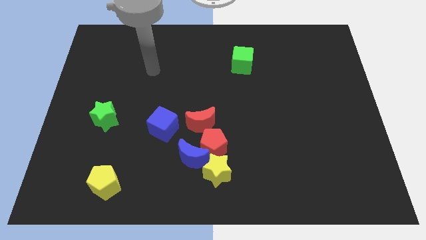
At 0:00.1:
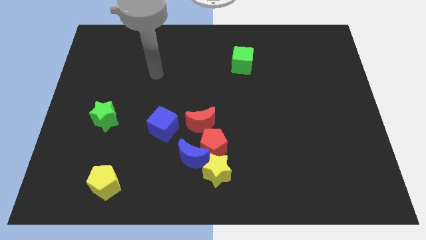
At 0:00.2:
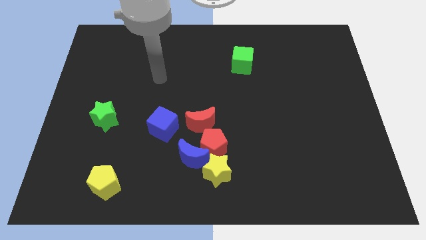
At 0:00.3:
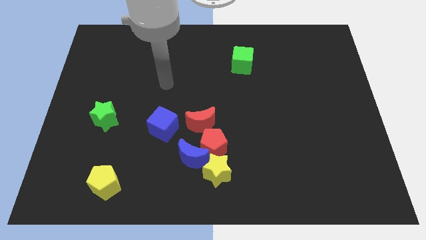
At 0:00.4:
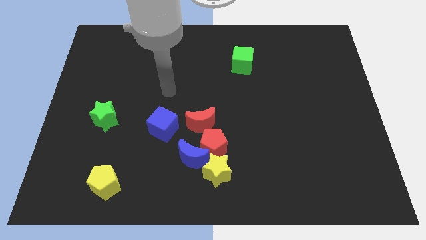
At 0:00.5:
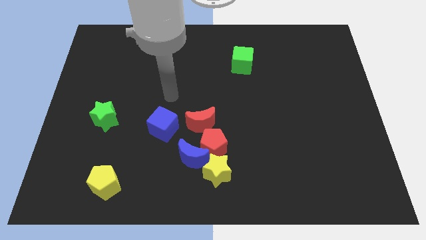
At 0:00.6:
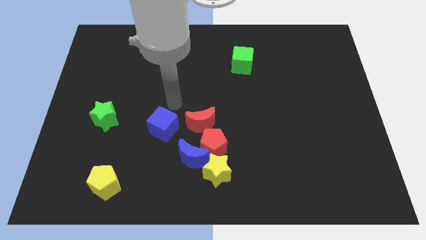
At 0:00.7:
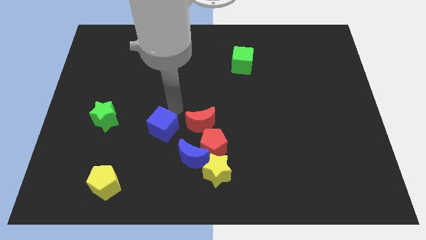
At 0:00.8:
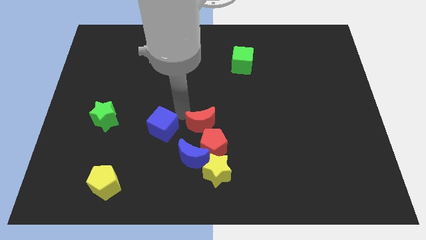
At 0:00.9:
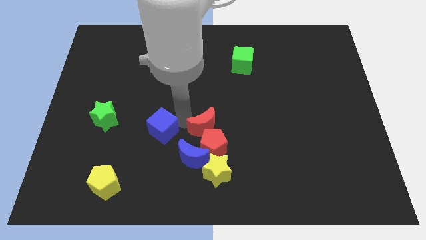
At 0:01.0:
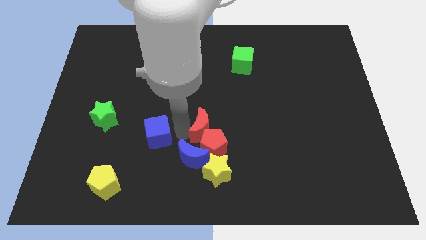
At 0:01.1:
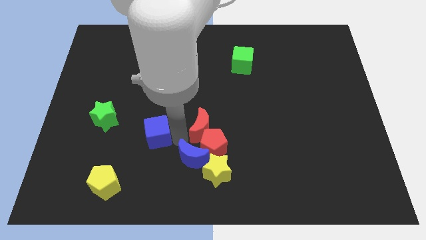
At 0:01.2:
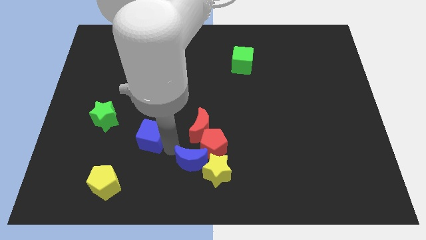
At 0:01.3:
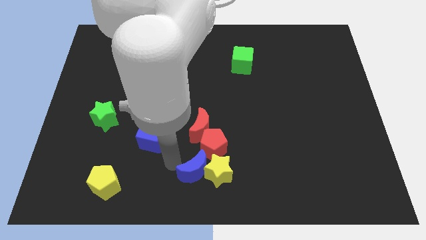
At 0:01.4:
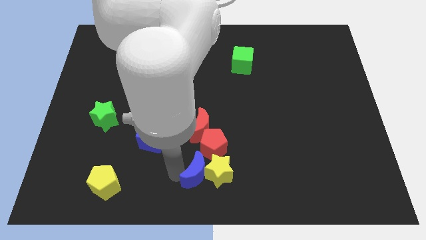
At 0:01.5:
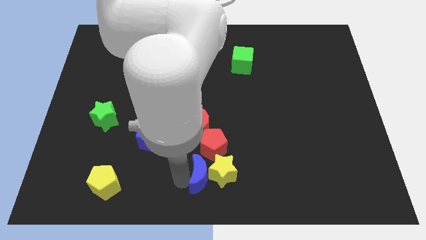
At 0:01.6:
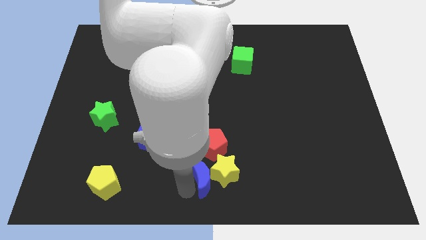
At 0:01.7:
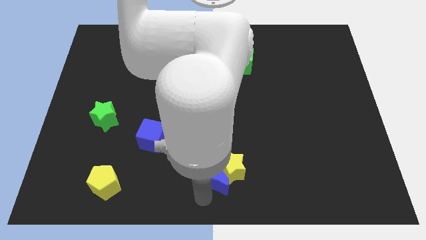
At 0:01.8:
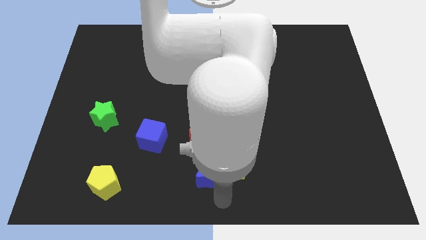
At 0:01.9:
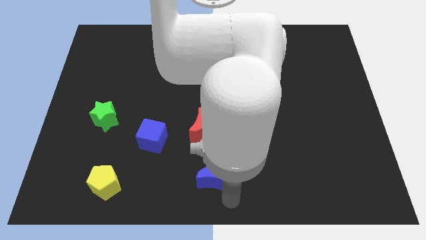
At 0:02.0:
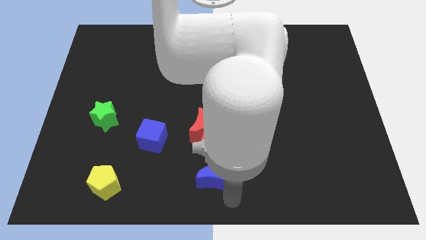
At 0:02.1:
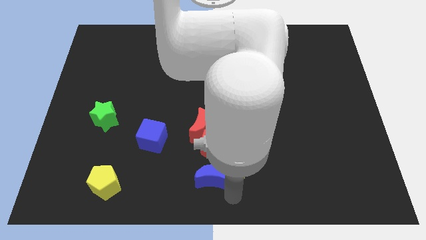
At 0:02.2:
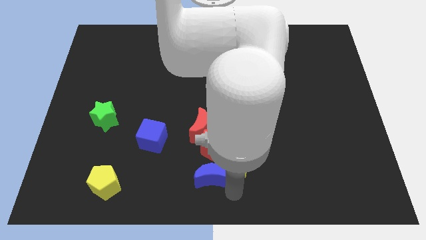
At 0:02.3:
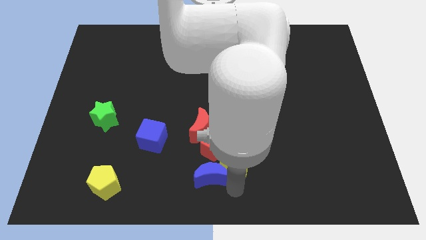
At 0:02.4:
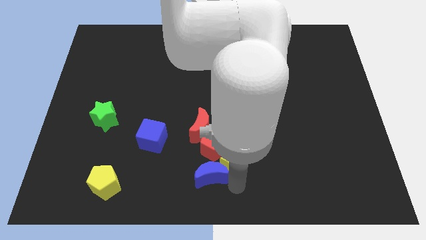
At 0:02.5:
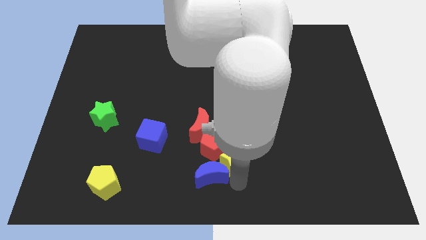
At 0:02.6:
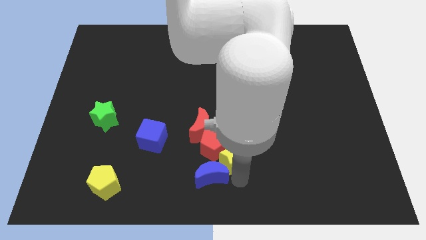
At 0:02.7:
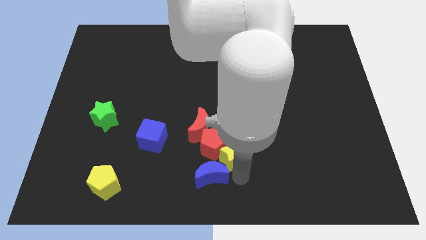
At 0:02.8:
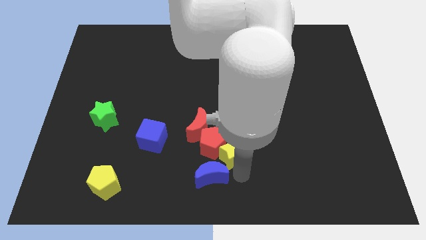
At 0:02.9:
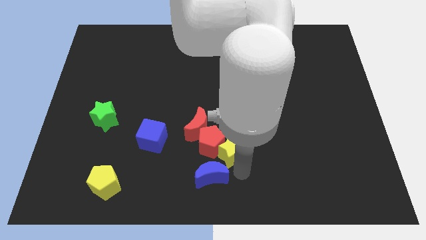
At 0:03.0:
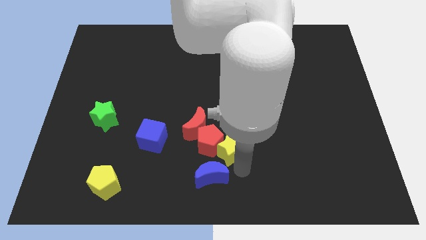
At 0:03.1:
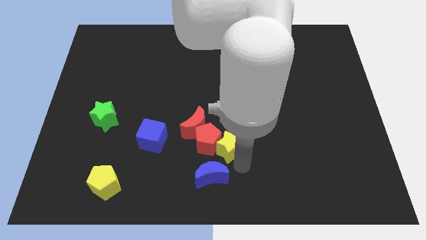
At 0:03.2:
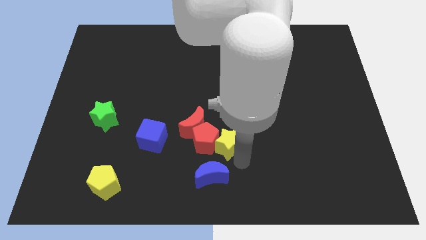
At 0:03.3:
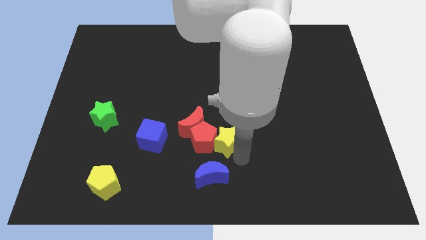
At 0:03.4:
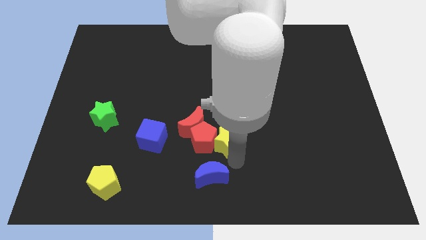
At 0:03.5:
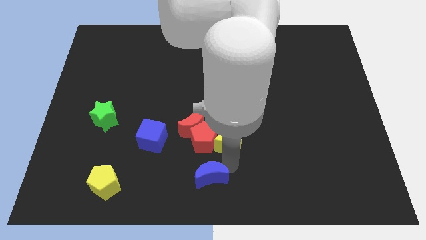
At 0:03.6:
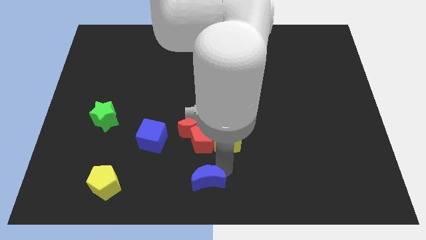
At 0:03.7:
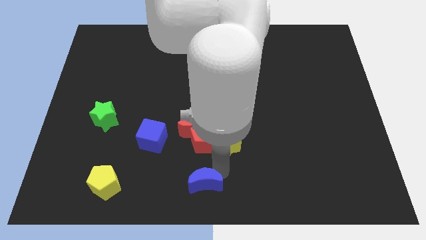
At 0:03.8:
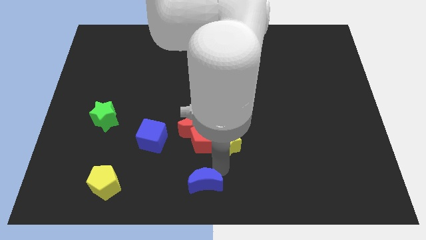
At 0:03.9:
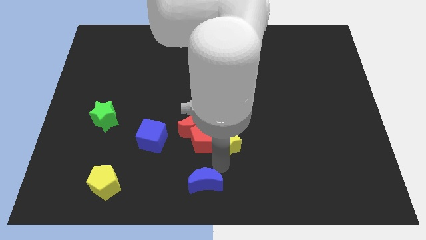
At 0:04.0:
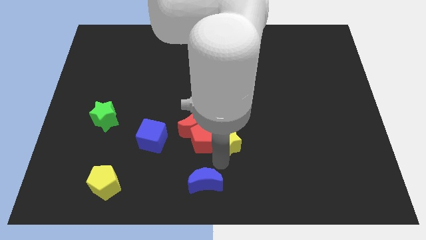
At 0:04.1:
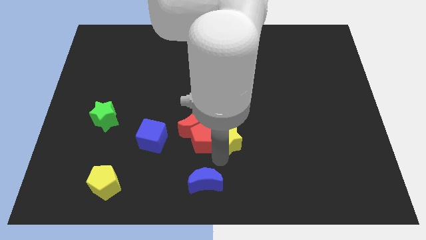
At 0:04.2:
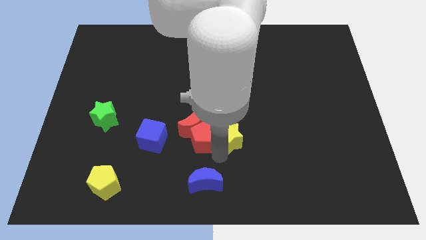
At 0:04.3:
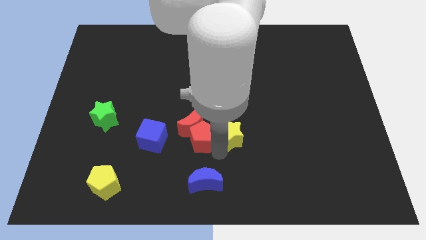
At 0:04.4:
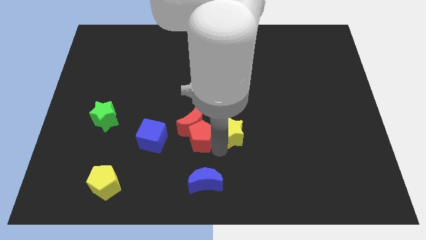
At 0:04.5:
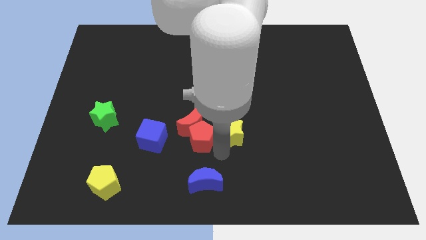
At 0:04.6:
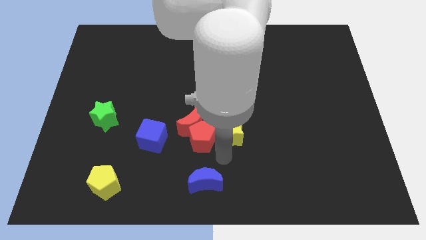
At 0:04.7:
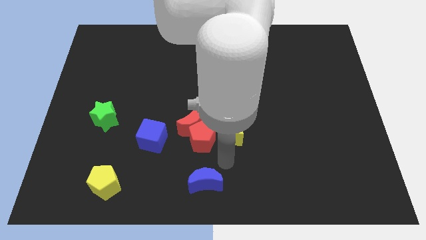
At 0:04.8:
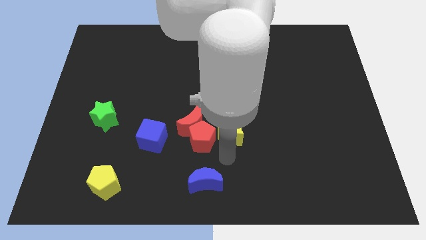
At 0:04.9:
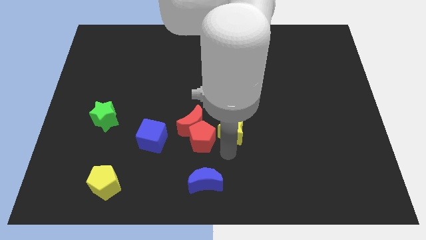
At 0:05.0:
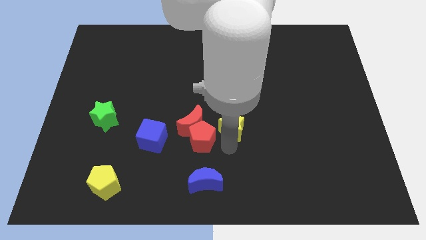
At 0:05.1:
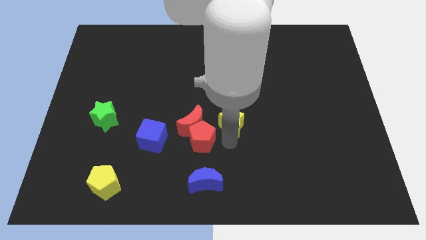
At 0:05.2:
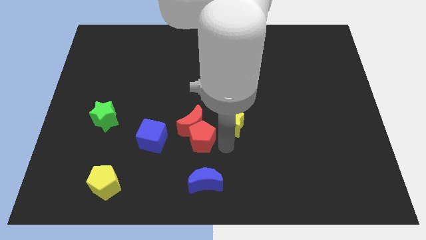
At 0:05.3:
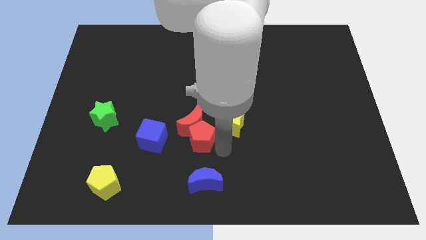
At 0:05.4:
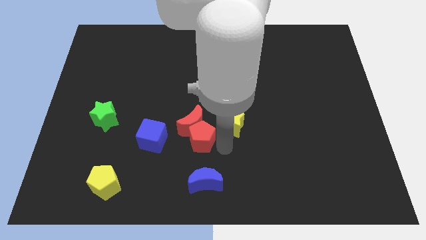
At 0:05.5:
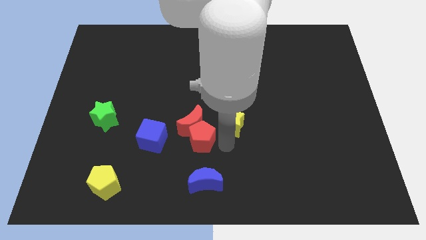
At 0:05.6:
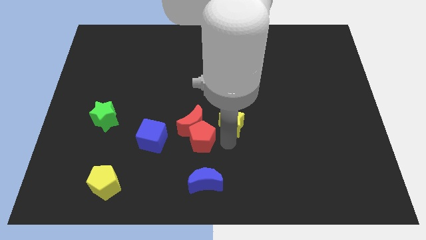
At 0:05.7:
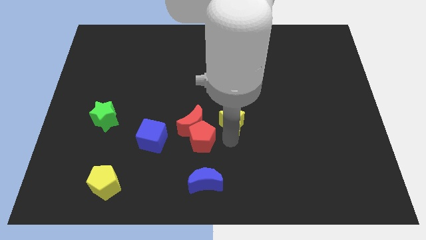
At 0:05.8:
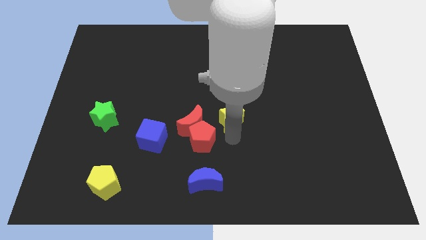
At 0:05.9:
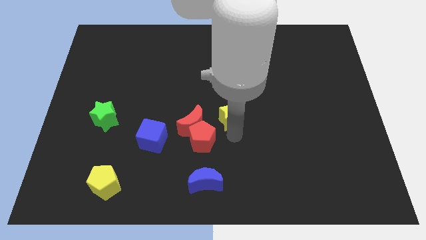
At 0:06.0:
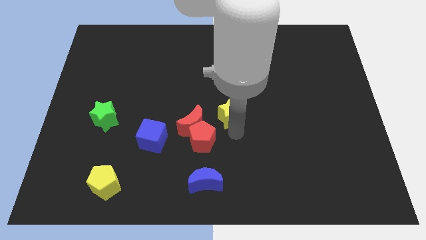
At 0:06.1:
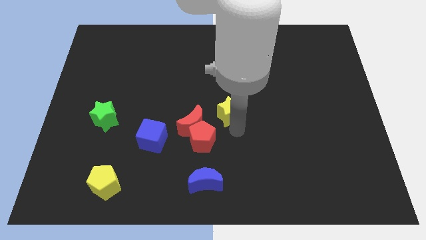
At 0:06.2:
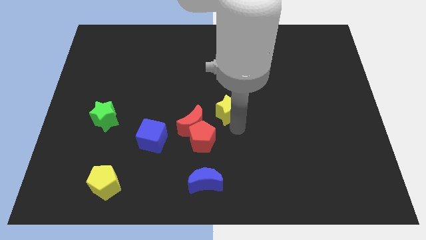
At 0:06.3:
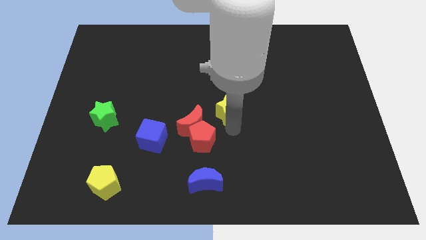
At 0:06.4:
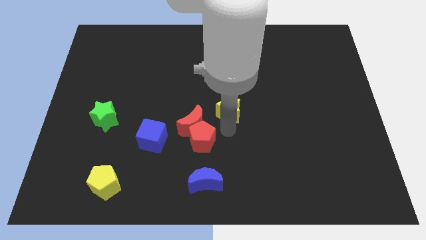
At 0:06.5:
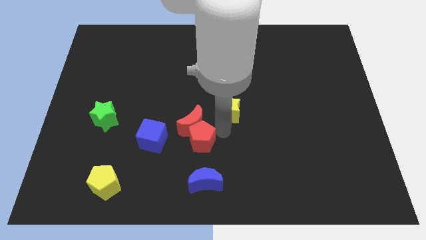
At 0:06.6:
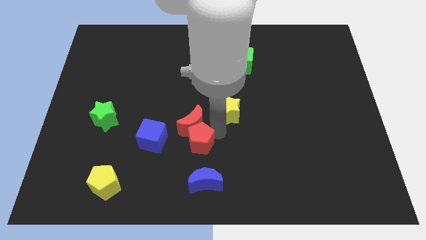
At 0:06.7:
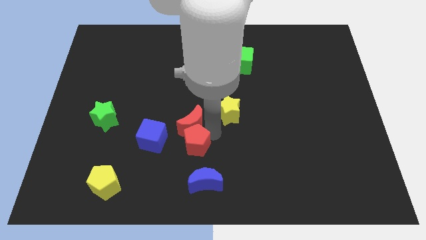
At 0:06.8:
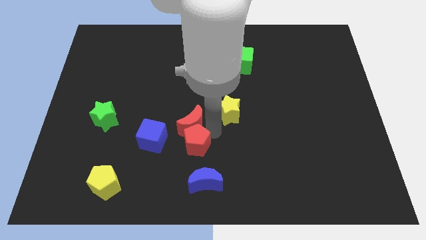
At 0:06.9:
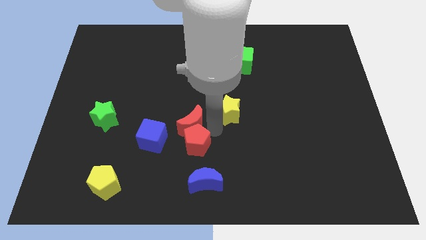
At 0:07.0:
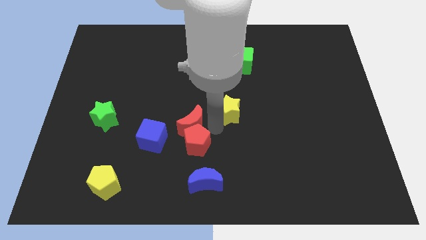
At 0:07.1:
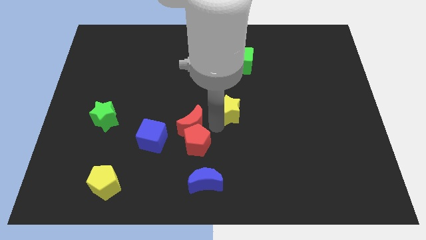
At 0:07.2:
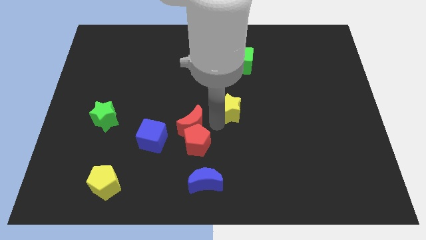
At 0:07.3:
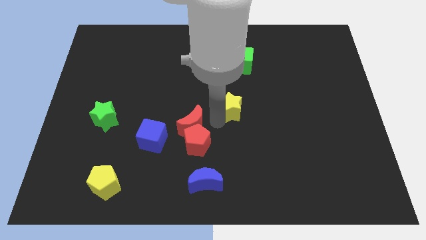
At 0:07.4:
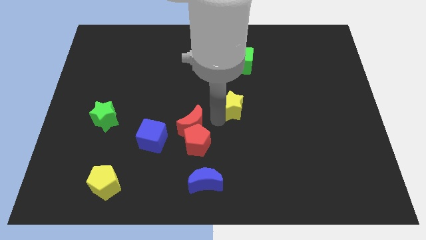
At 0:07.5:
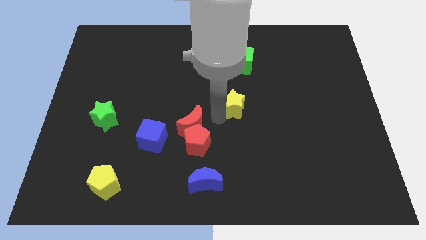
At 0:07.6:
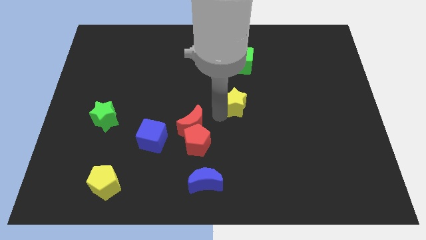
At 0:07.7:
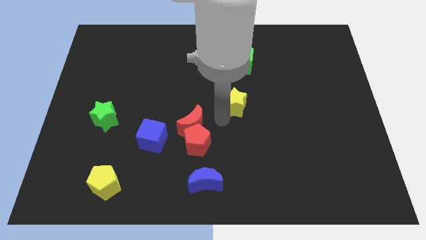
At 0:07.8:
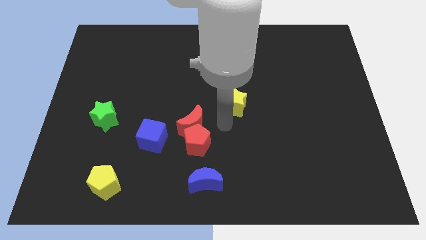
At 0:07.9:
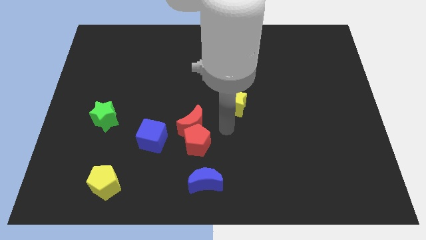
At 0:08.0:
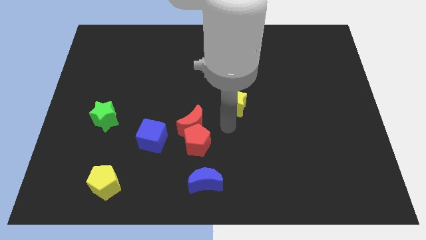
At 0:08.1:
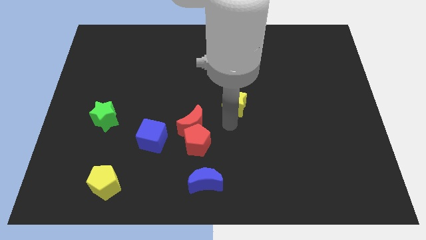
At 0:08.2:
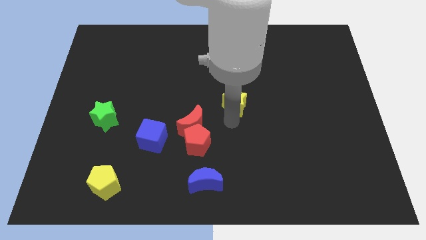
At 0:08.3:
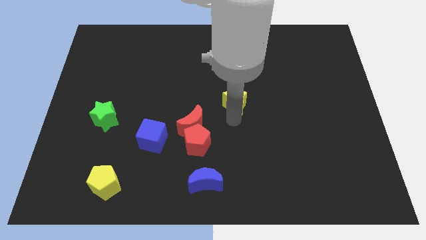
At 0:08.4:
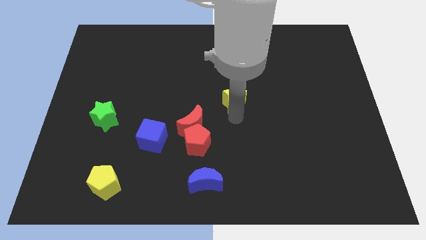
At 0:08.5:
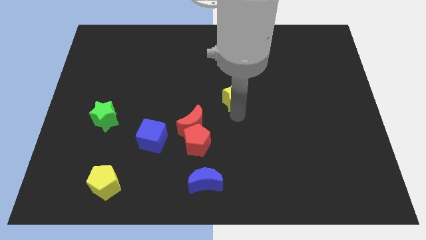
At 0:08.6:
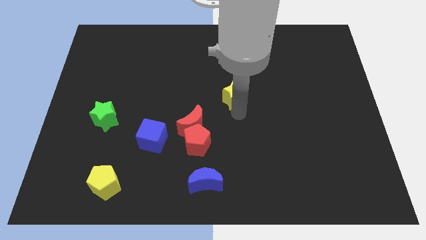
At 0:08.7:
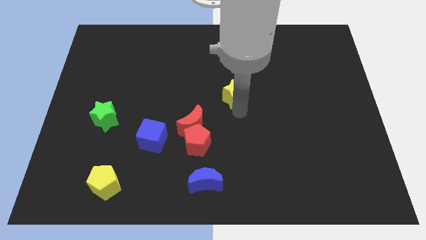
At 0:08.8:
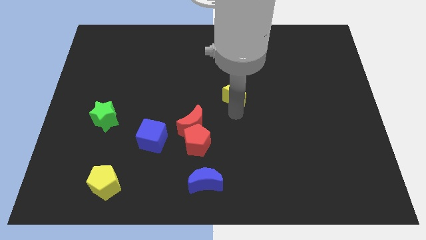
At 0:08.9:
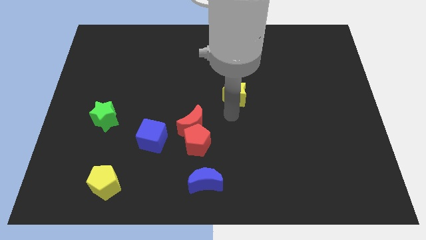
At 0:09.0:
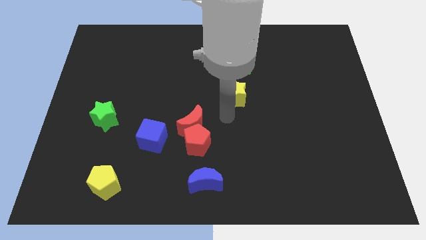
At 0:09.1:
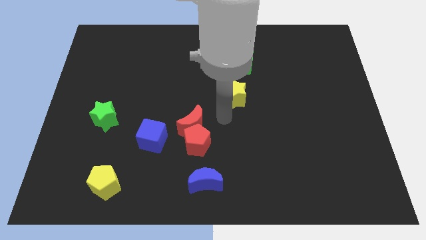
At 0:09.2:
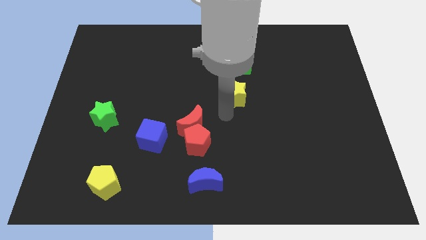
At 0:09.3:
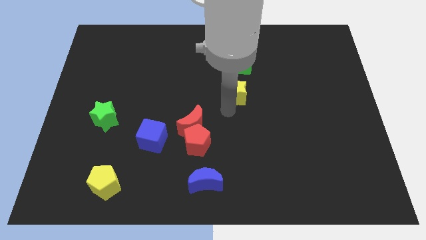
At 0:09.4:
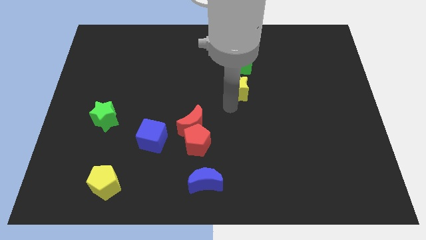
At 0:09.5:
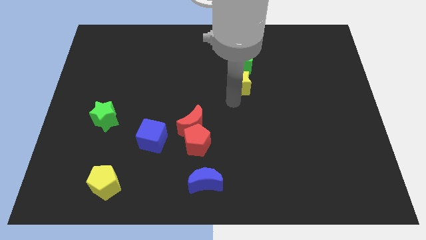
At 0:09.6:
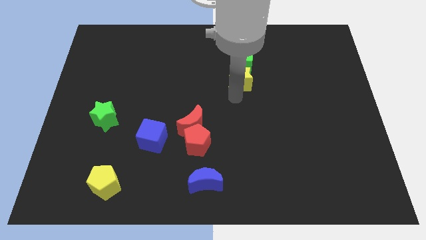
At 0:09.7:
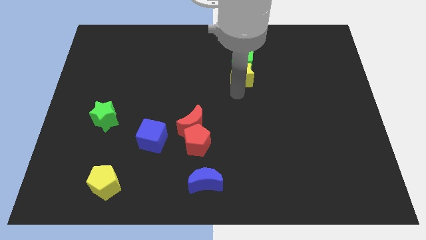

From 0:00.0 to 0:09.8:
push the yellow star next to the green cube
